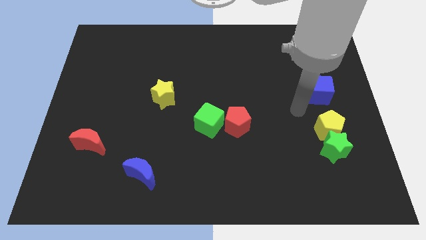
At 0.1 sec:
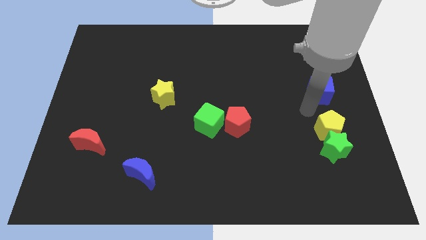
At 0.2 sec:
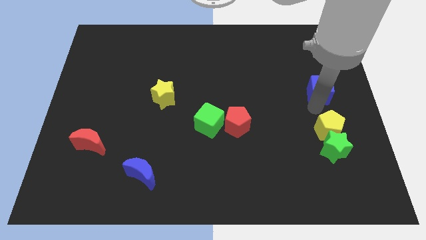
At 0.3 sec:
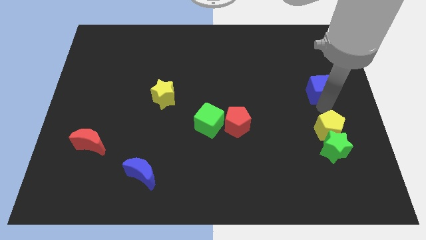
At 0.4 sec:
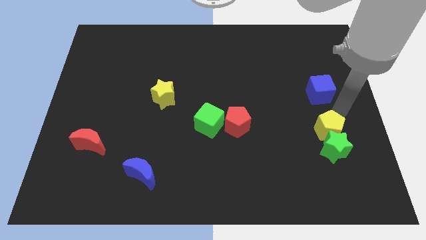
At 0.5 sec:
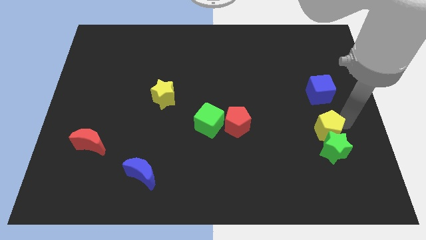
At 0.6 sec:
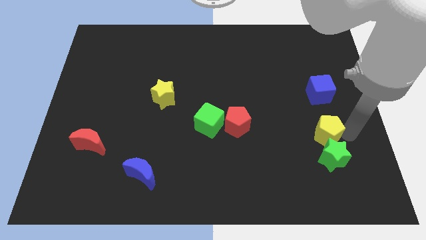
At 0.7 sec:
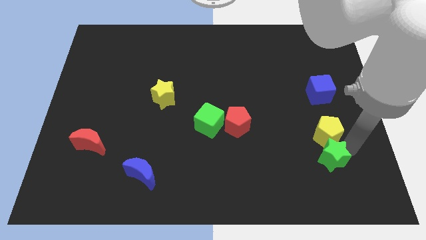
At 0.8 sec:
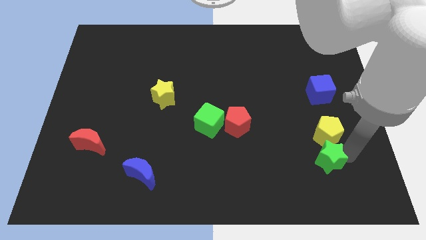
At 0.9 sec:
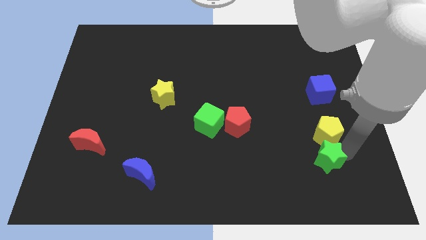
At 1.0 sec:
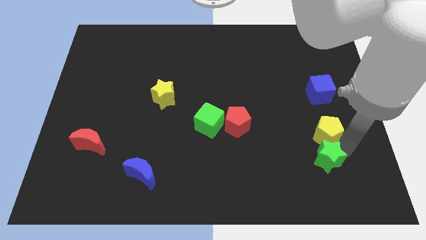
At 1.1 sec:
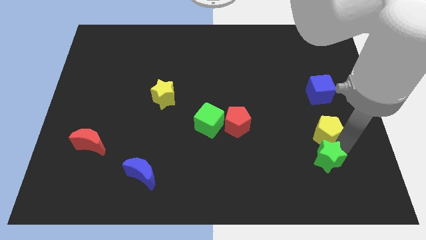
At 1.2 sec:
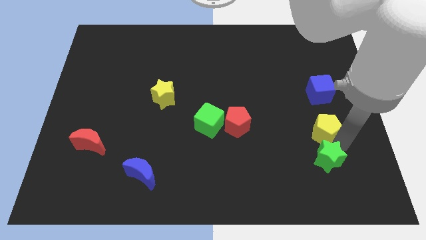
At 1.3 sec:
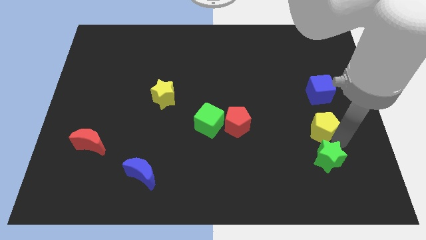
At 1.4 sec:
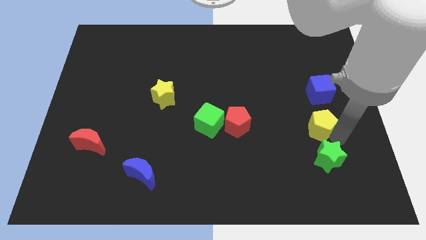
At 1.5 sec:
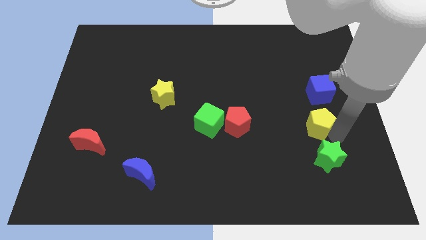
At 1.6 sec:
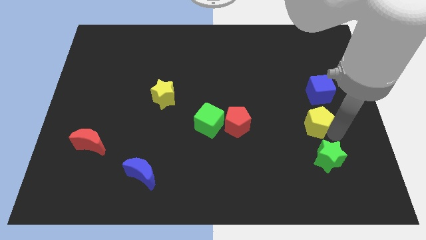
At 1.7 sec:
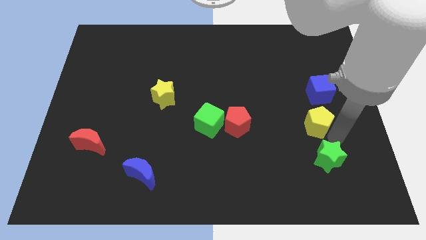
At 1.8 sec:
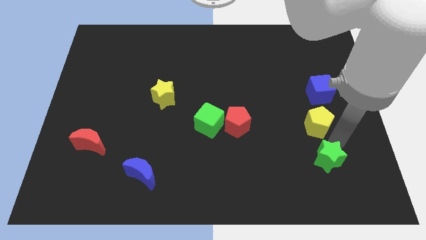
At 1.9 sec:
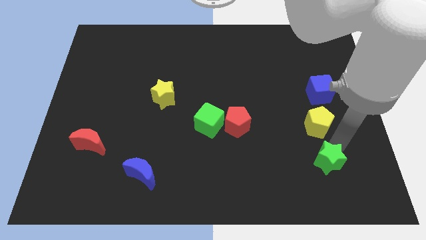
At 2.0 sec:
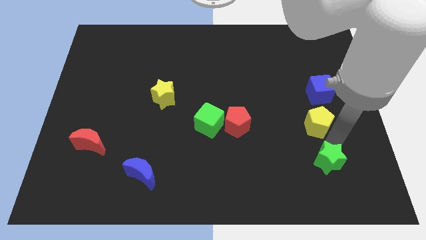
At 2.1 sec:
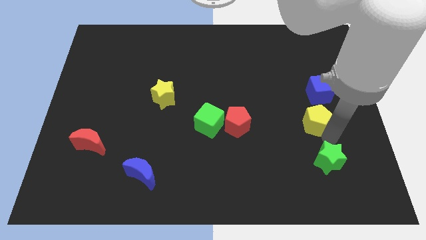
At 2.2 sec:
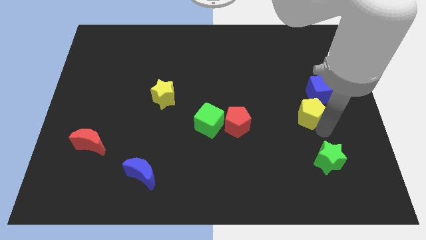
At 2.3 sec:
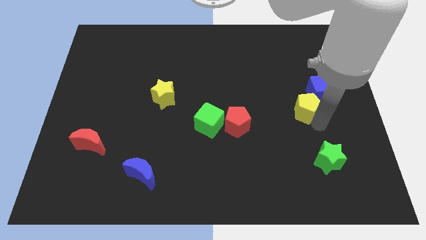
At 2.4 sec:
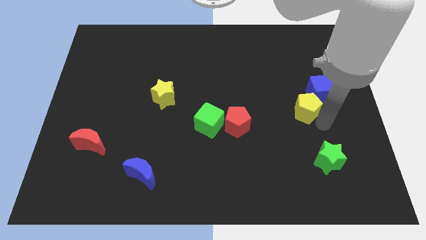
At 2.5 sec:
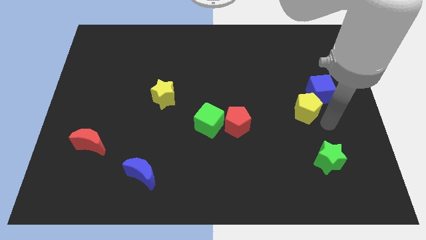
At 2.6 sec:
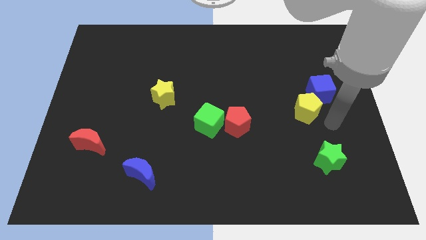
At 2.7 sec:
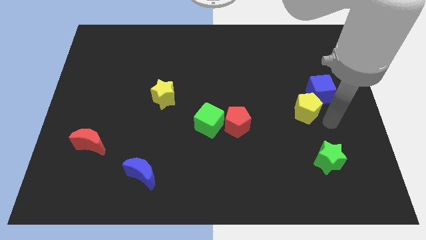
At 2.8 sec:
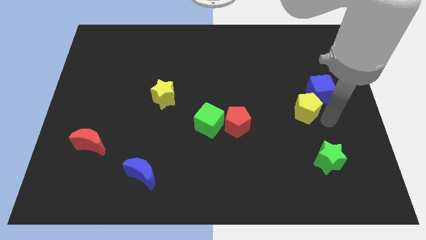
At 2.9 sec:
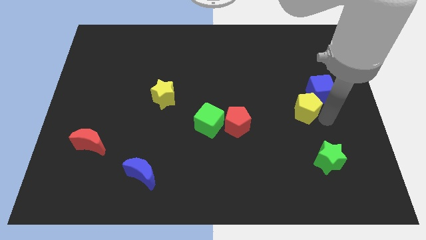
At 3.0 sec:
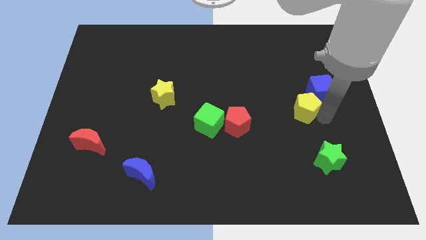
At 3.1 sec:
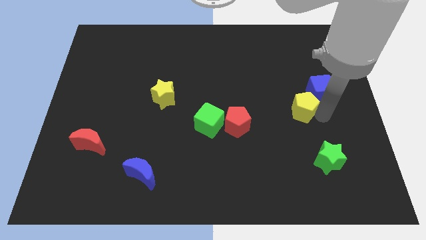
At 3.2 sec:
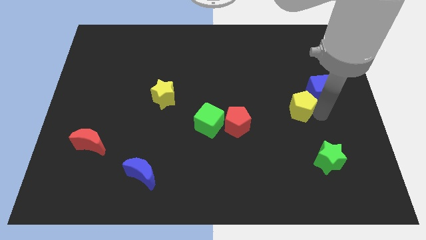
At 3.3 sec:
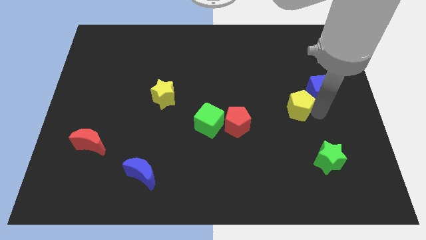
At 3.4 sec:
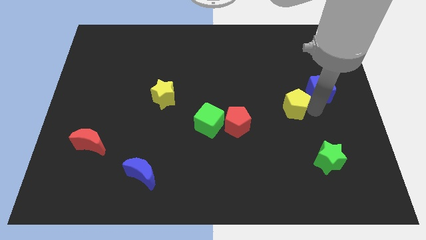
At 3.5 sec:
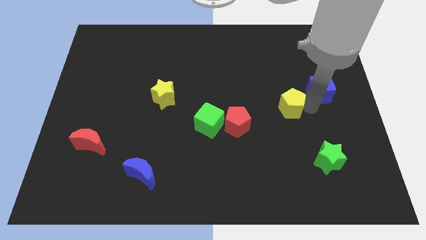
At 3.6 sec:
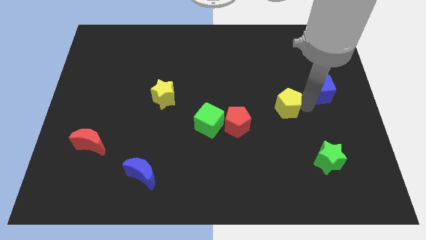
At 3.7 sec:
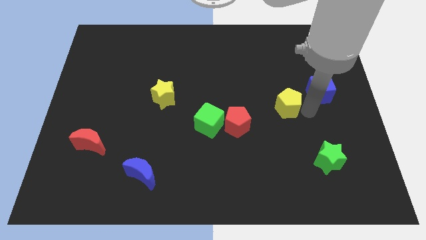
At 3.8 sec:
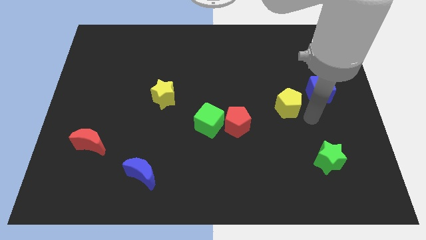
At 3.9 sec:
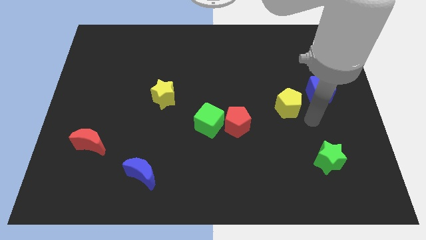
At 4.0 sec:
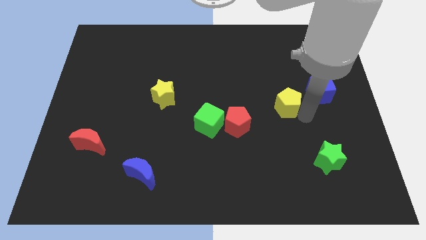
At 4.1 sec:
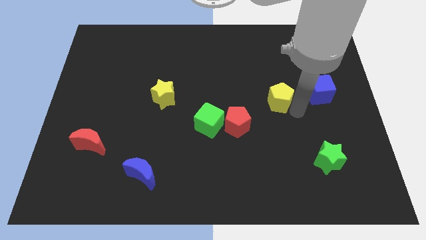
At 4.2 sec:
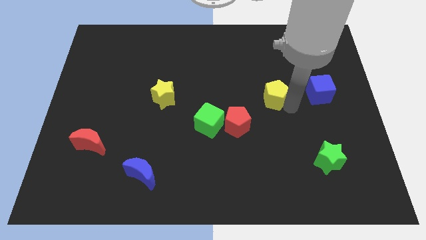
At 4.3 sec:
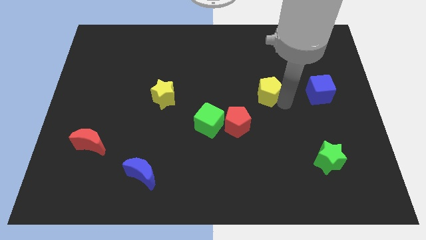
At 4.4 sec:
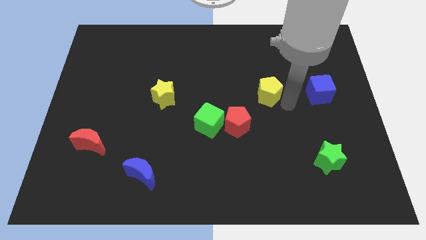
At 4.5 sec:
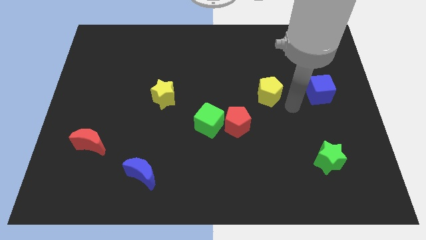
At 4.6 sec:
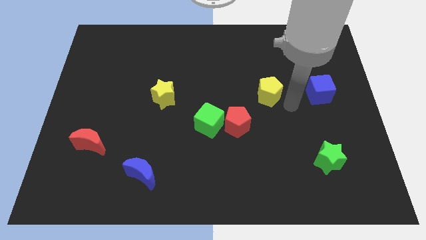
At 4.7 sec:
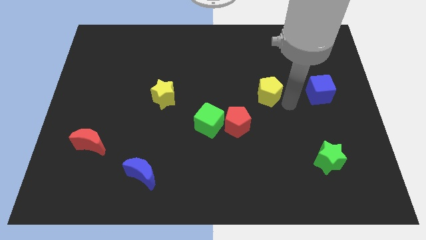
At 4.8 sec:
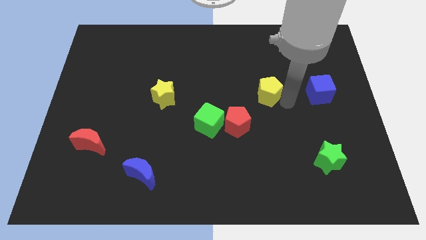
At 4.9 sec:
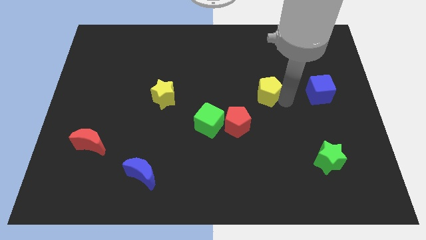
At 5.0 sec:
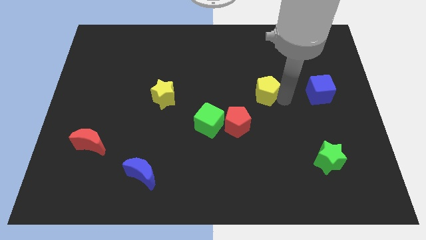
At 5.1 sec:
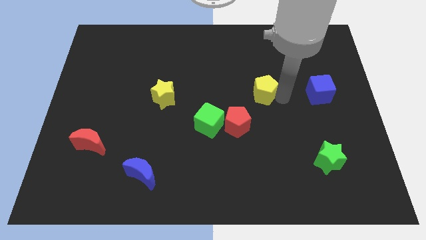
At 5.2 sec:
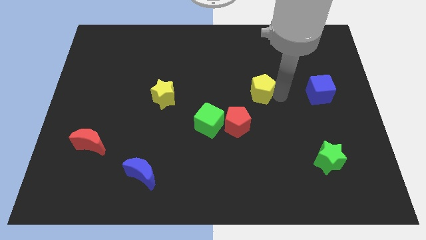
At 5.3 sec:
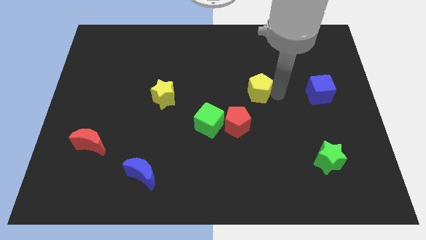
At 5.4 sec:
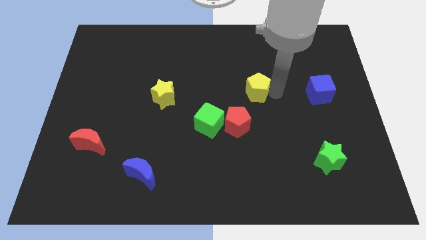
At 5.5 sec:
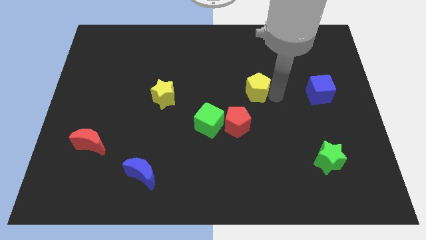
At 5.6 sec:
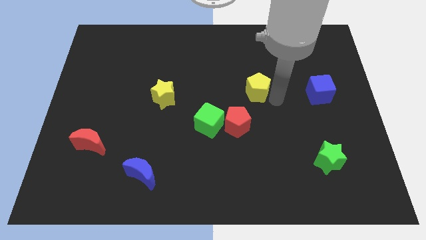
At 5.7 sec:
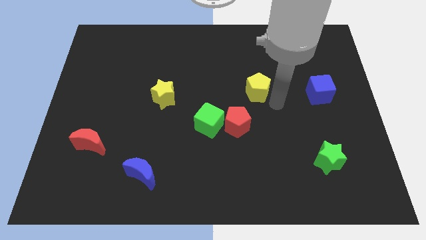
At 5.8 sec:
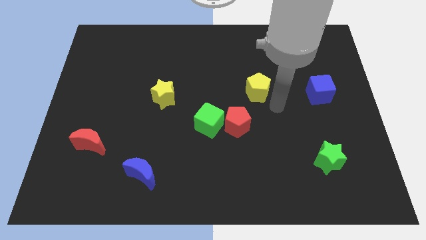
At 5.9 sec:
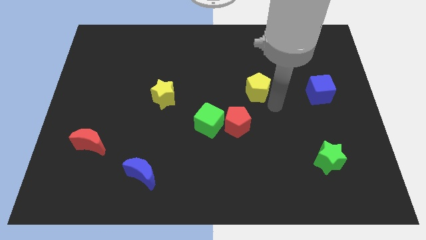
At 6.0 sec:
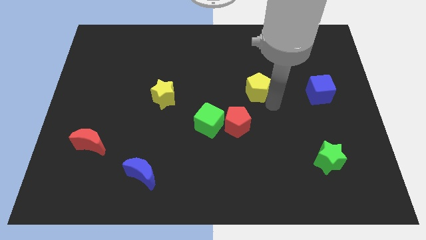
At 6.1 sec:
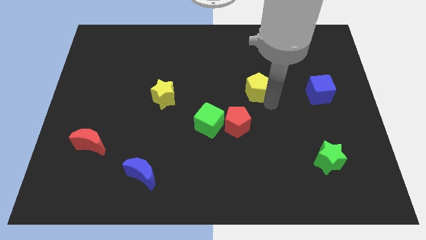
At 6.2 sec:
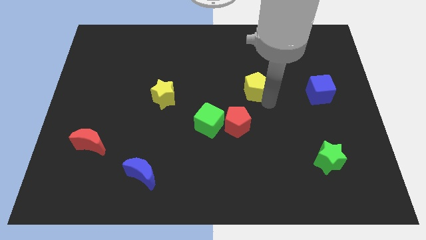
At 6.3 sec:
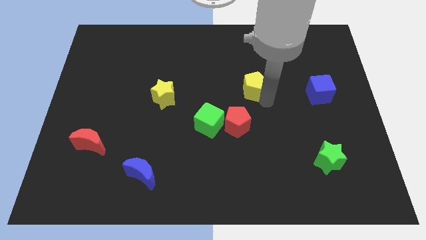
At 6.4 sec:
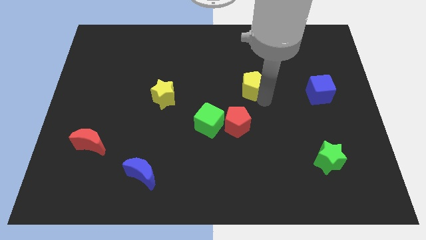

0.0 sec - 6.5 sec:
slide the yellow pentagon upwards and then left

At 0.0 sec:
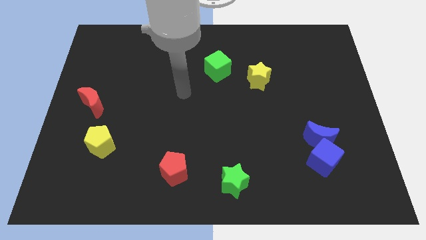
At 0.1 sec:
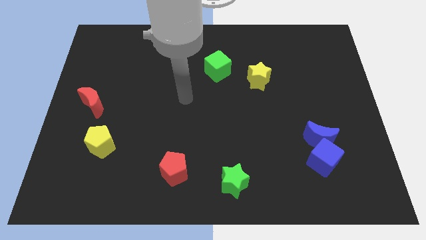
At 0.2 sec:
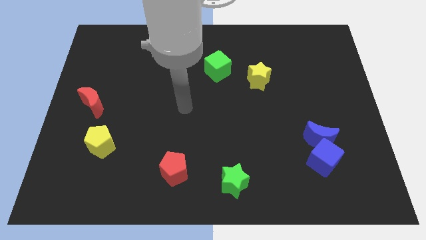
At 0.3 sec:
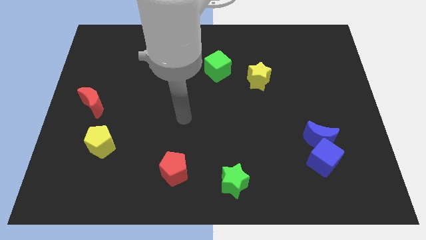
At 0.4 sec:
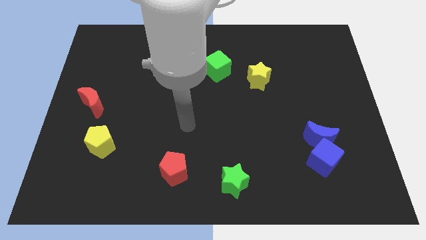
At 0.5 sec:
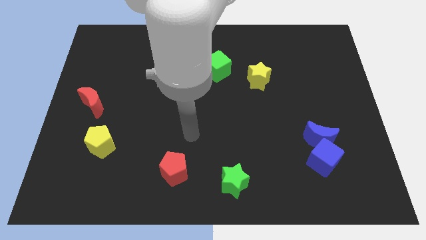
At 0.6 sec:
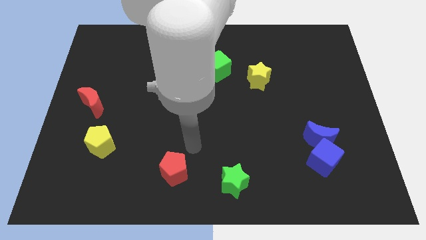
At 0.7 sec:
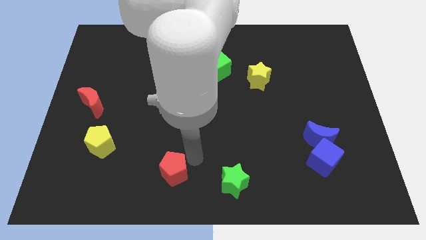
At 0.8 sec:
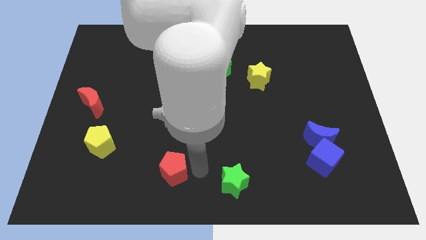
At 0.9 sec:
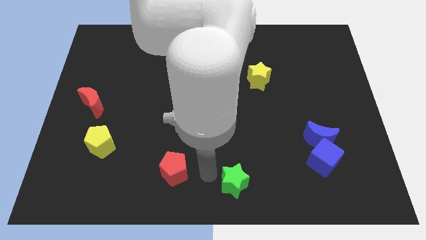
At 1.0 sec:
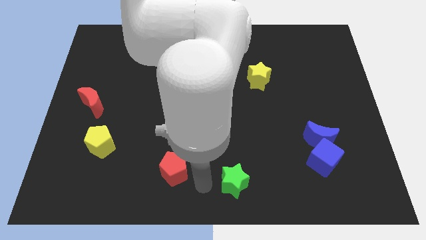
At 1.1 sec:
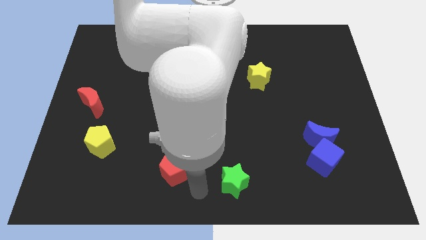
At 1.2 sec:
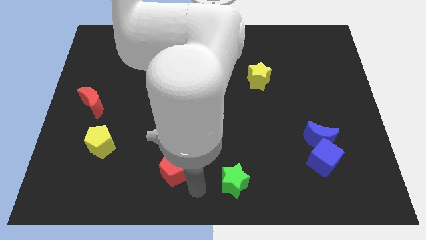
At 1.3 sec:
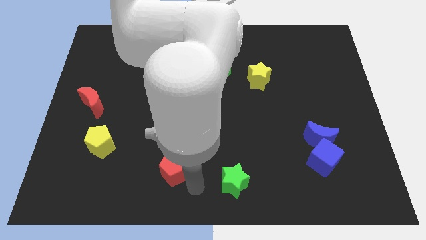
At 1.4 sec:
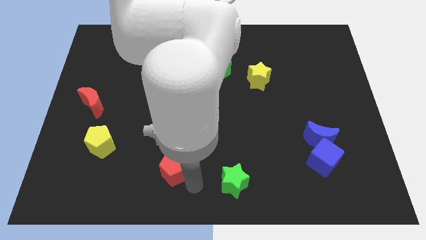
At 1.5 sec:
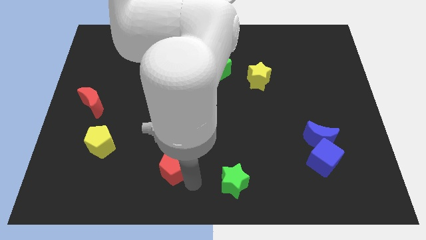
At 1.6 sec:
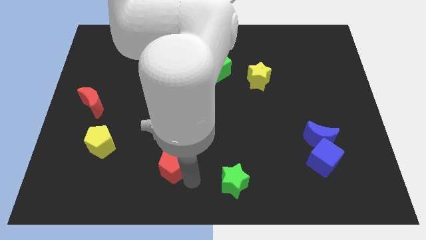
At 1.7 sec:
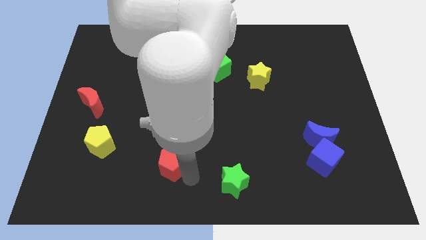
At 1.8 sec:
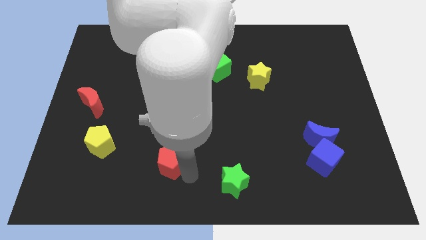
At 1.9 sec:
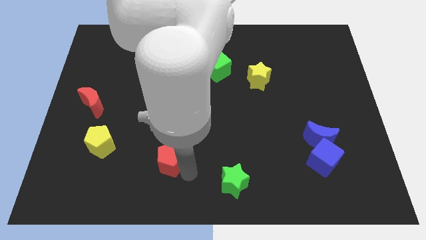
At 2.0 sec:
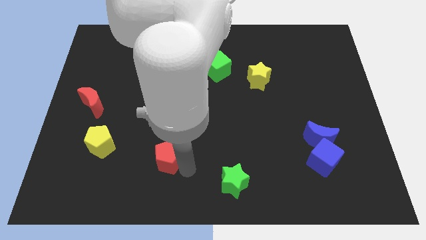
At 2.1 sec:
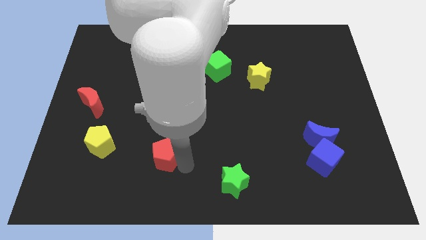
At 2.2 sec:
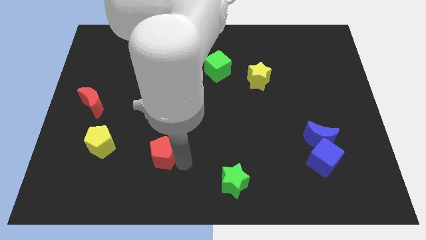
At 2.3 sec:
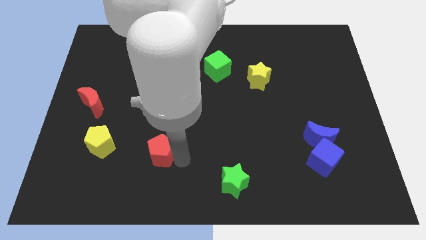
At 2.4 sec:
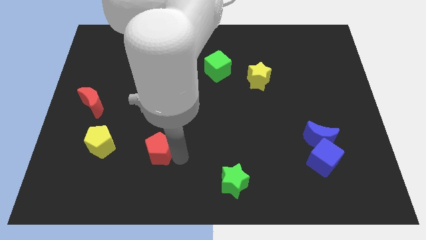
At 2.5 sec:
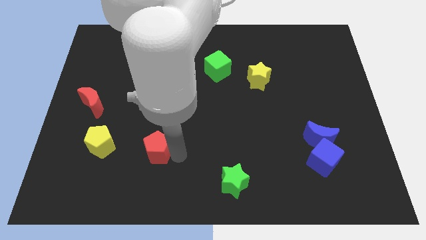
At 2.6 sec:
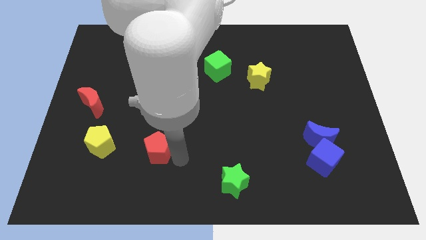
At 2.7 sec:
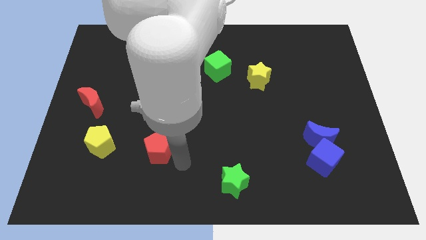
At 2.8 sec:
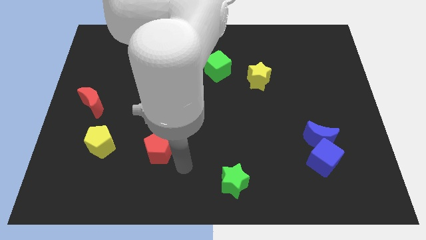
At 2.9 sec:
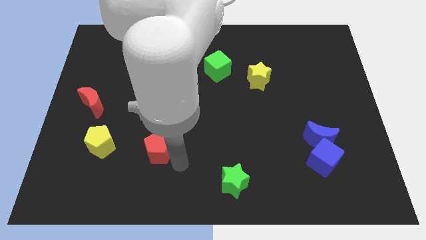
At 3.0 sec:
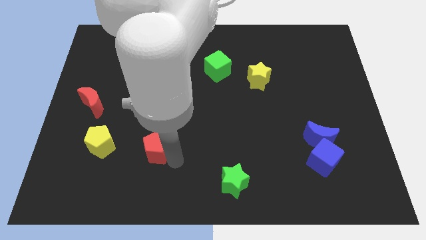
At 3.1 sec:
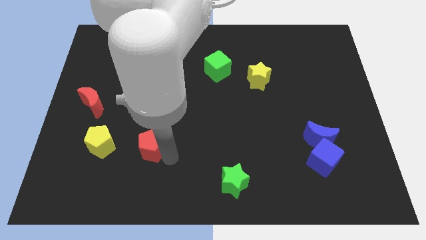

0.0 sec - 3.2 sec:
slightly move the red pentagon up and left
